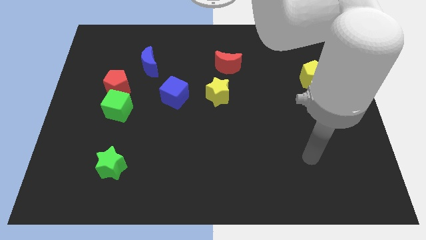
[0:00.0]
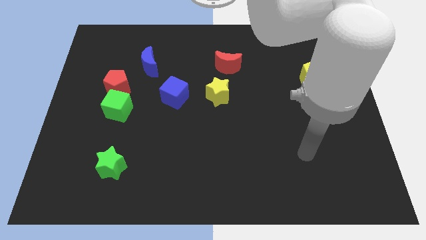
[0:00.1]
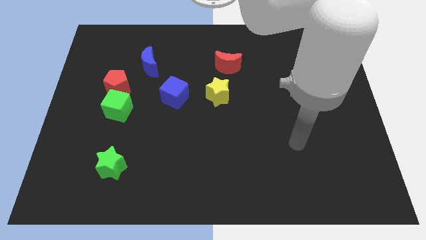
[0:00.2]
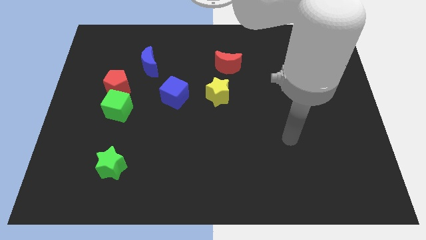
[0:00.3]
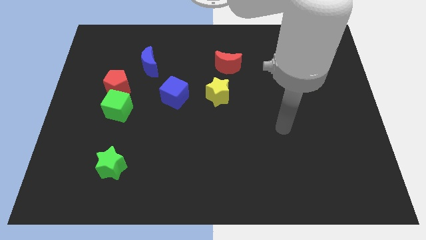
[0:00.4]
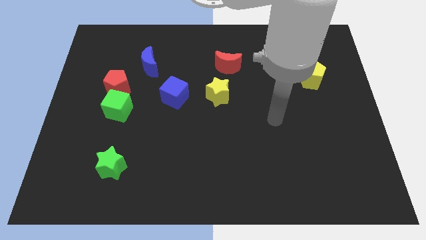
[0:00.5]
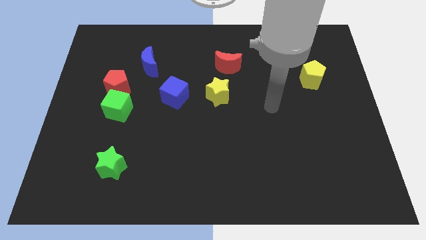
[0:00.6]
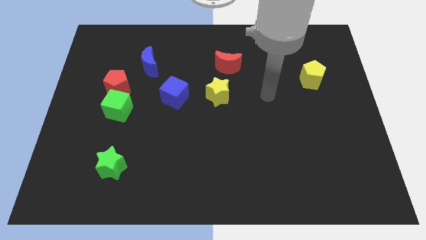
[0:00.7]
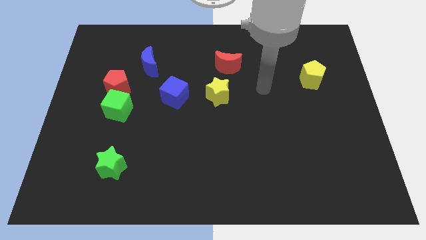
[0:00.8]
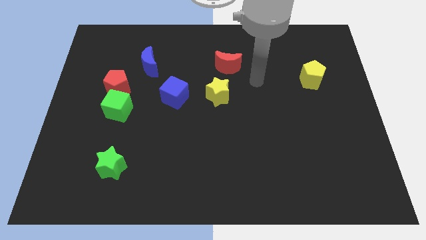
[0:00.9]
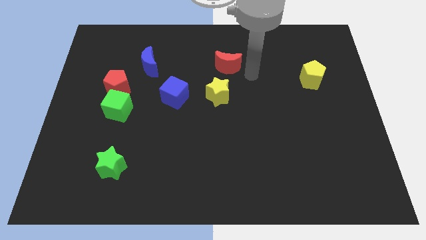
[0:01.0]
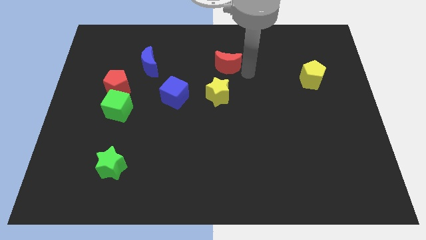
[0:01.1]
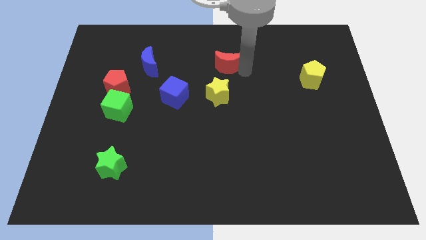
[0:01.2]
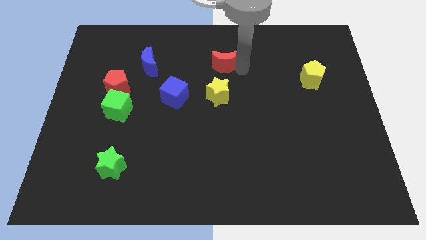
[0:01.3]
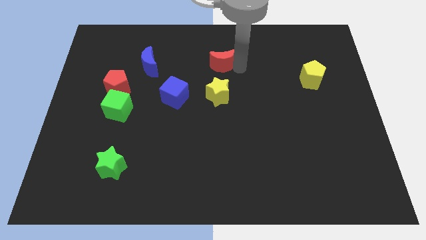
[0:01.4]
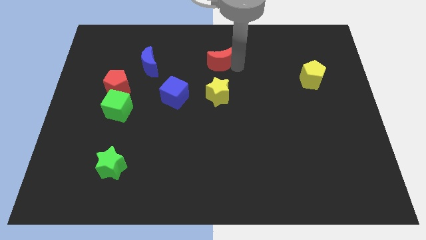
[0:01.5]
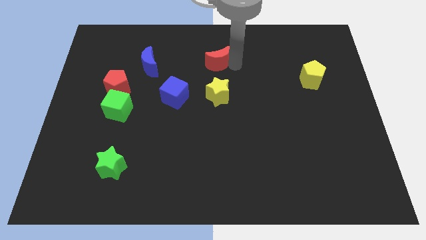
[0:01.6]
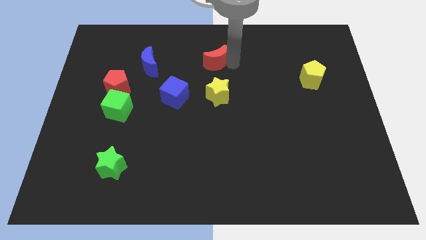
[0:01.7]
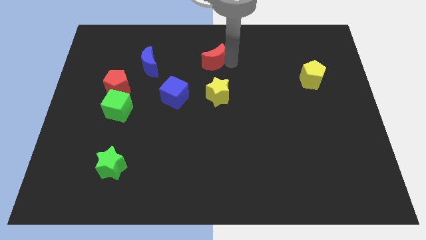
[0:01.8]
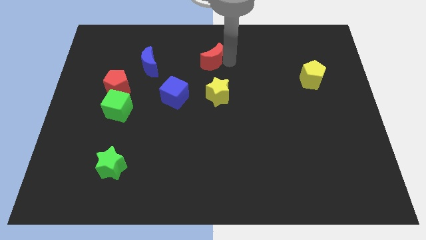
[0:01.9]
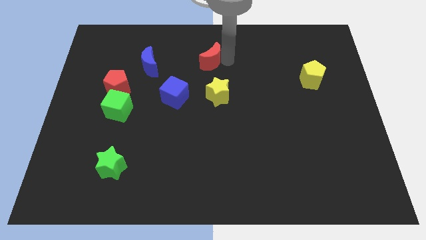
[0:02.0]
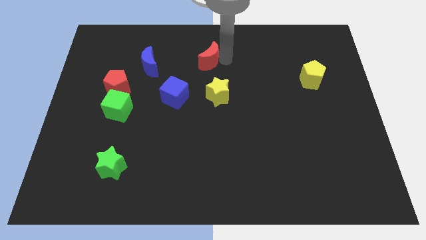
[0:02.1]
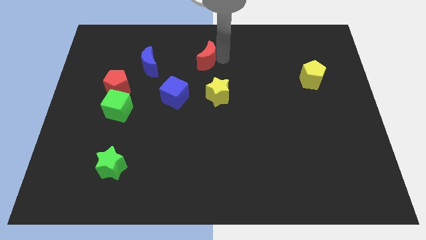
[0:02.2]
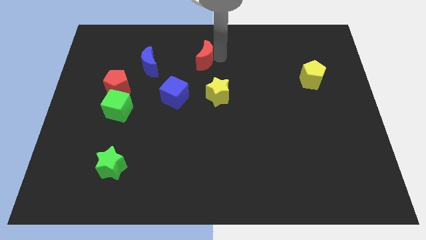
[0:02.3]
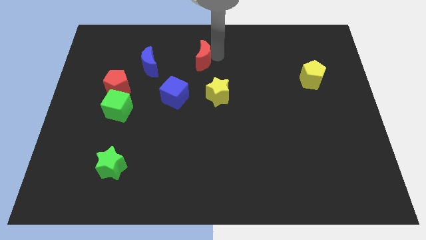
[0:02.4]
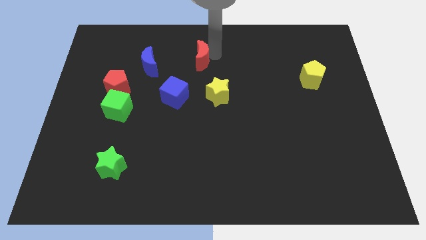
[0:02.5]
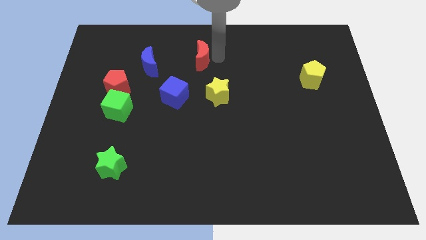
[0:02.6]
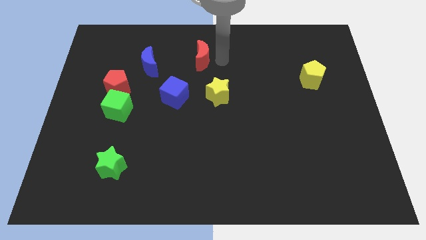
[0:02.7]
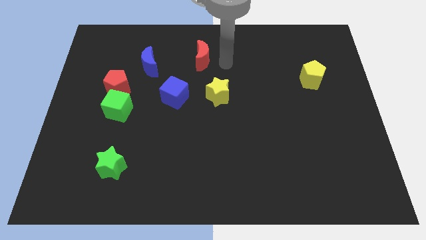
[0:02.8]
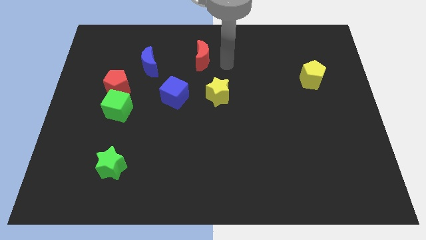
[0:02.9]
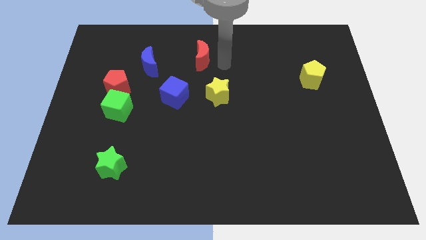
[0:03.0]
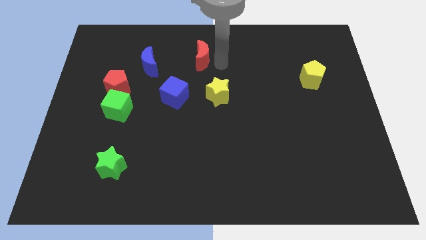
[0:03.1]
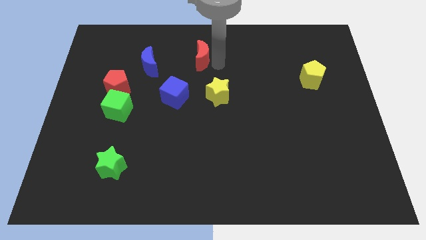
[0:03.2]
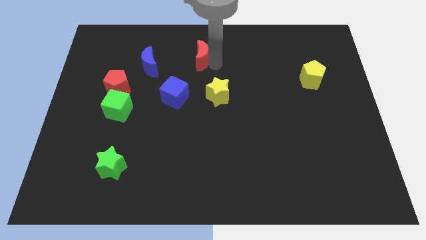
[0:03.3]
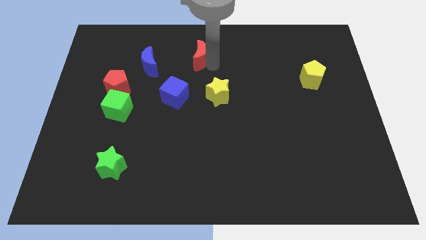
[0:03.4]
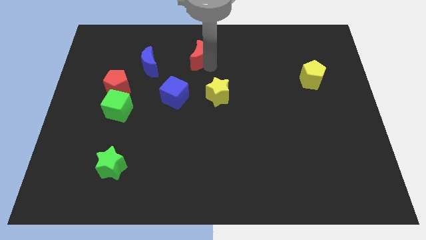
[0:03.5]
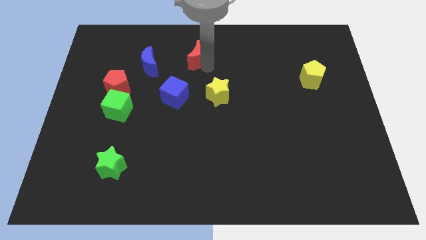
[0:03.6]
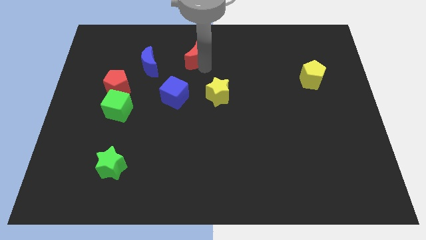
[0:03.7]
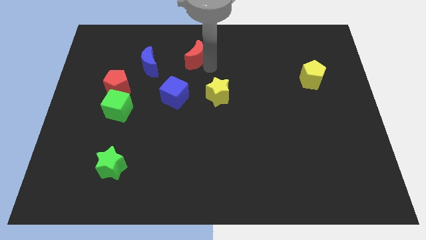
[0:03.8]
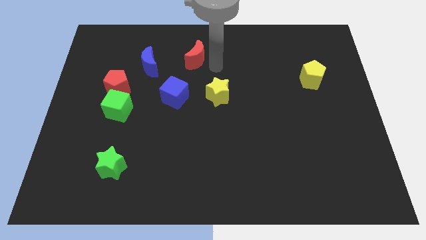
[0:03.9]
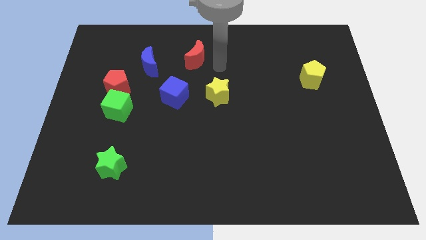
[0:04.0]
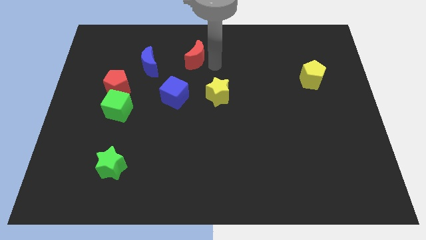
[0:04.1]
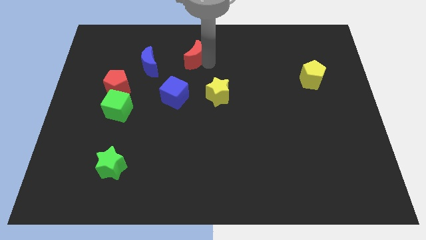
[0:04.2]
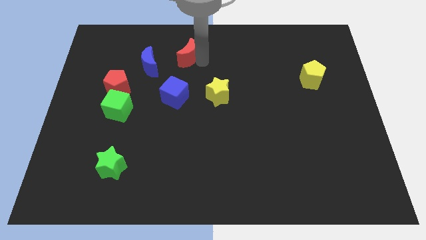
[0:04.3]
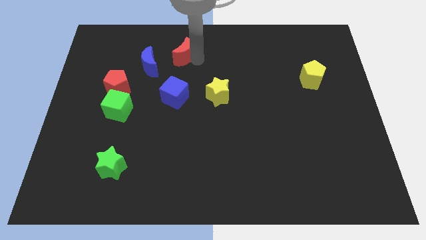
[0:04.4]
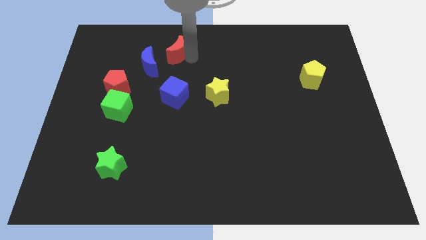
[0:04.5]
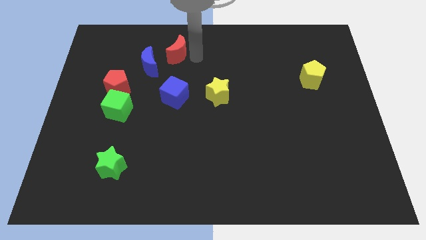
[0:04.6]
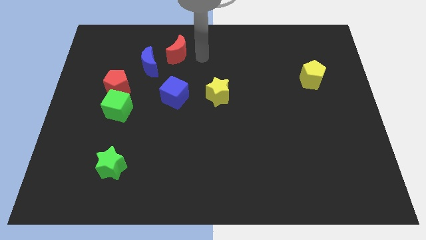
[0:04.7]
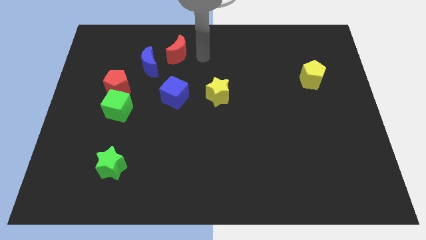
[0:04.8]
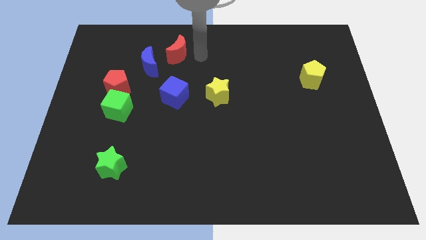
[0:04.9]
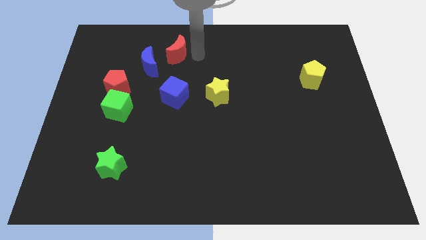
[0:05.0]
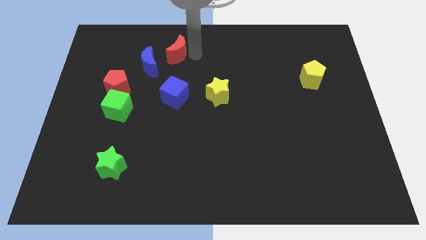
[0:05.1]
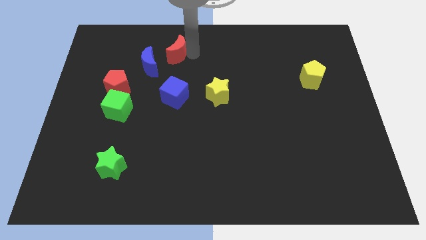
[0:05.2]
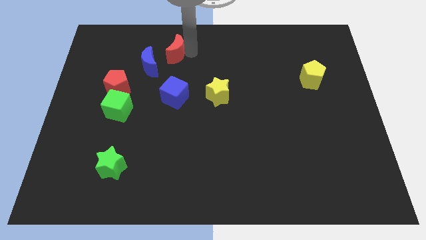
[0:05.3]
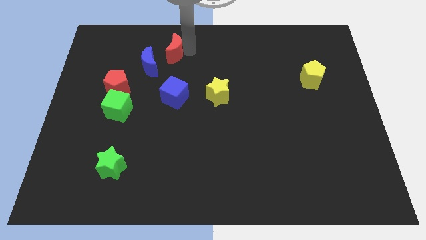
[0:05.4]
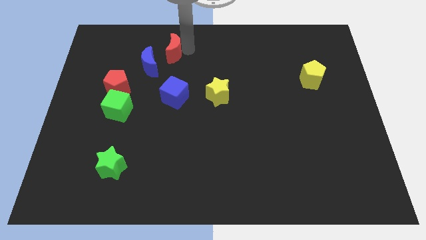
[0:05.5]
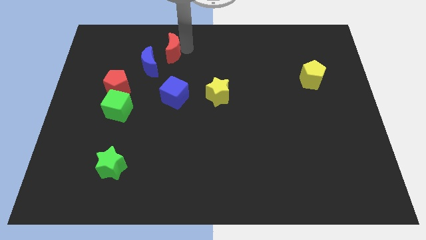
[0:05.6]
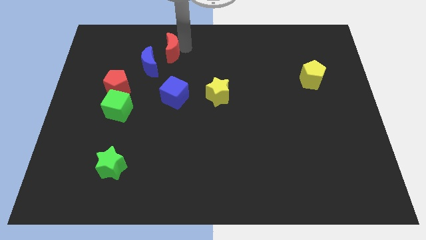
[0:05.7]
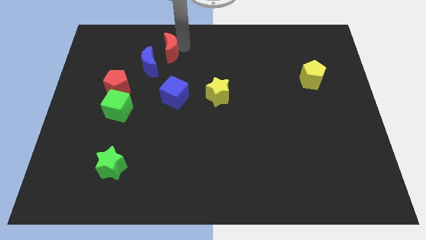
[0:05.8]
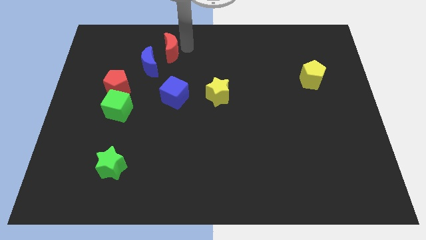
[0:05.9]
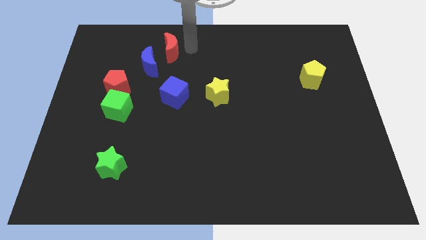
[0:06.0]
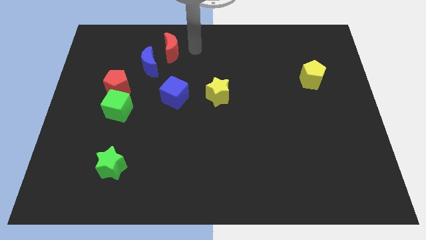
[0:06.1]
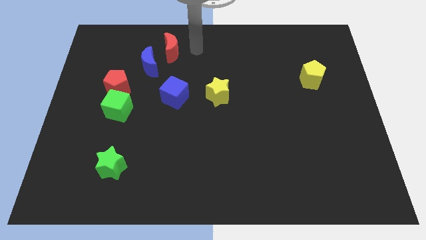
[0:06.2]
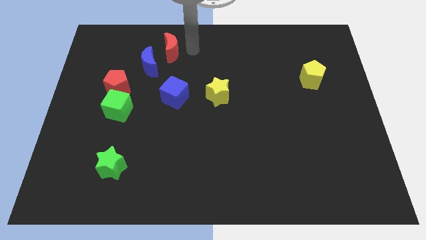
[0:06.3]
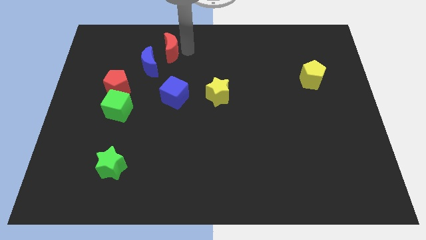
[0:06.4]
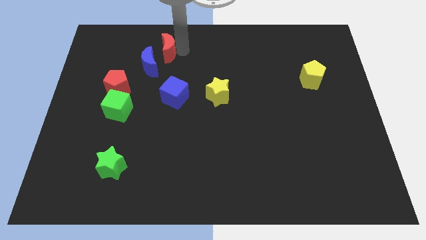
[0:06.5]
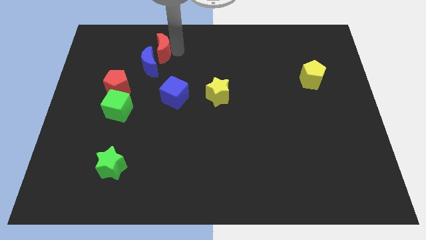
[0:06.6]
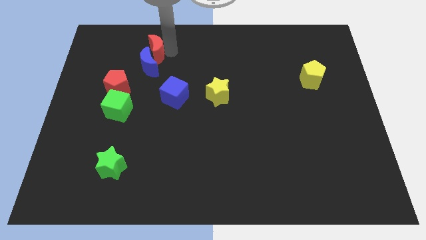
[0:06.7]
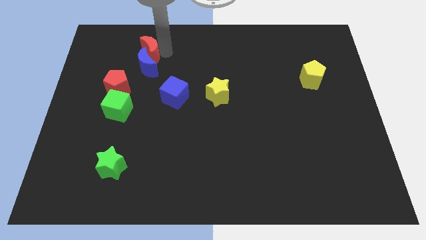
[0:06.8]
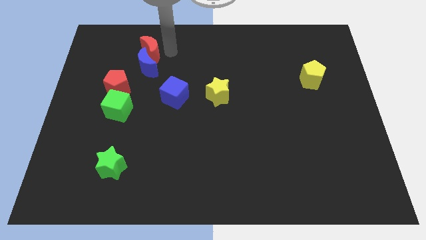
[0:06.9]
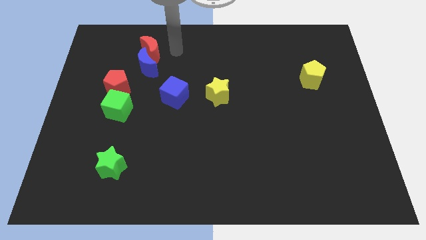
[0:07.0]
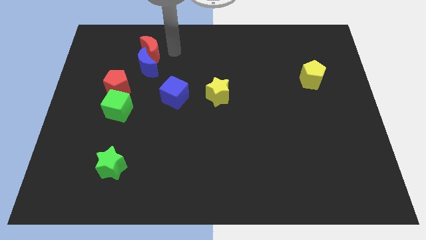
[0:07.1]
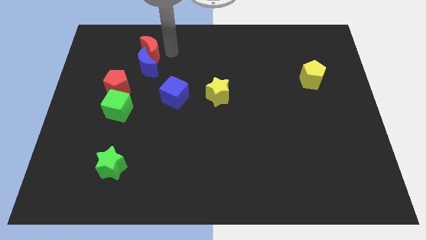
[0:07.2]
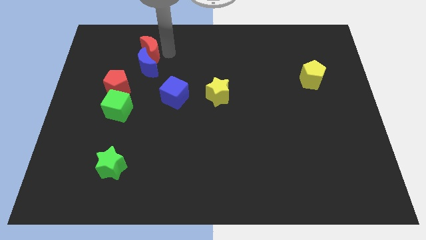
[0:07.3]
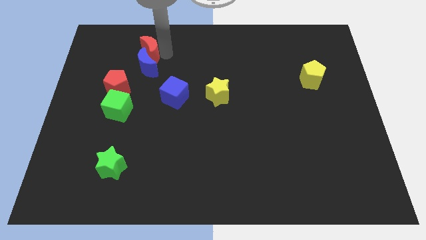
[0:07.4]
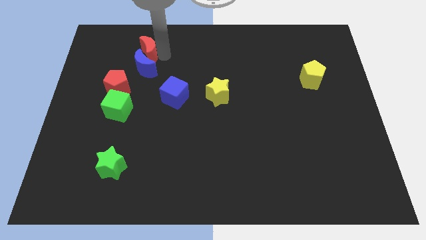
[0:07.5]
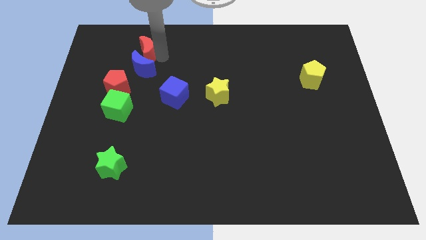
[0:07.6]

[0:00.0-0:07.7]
slide the red moon left

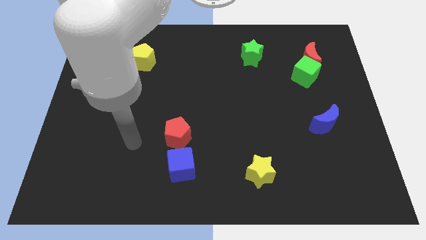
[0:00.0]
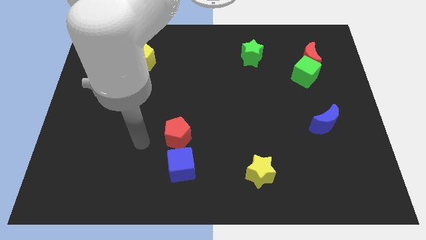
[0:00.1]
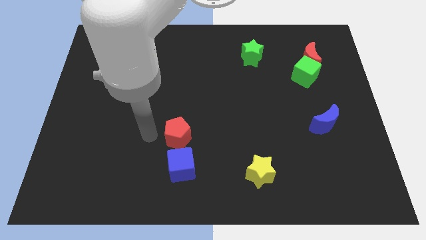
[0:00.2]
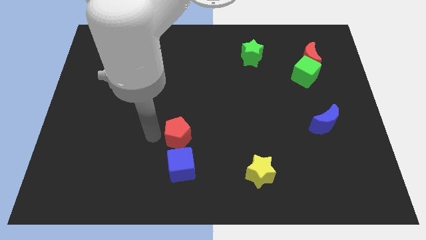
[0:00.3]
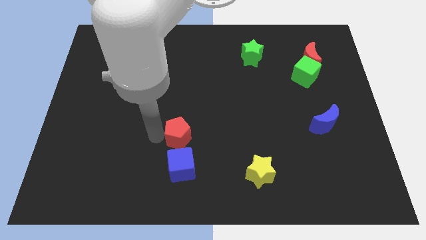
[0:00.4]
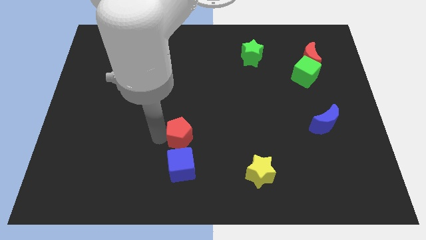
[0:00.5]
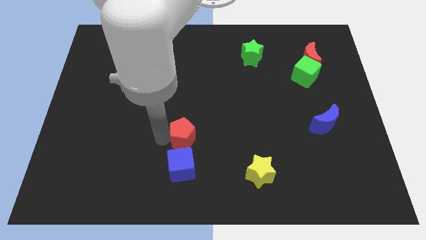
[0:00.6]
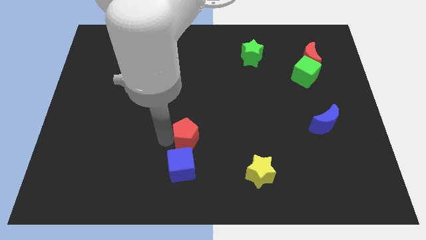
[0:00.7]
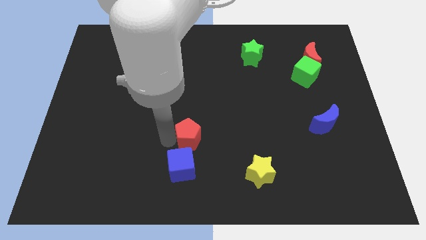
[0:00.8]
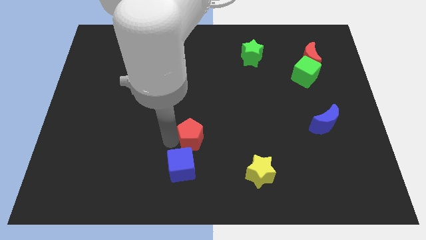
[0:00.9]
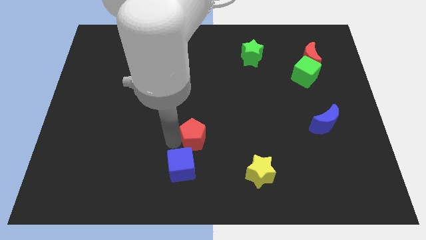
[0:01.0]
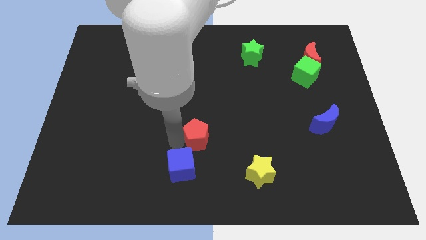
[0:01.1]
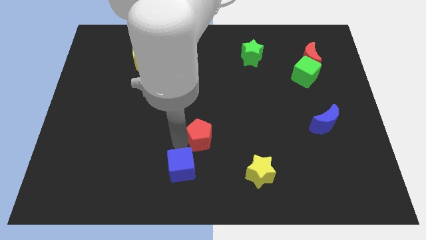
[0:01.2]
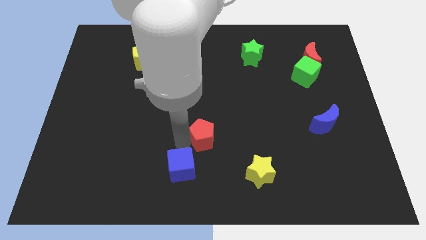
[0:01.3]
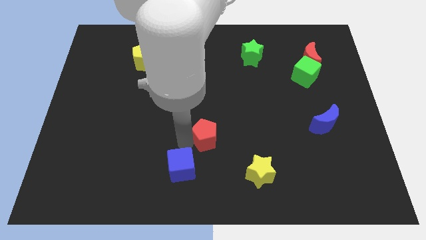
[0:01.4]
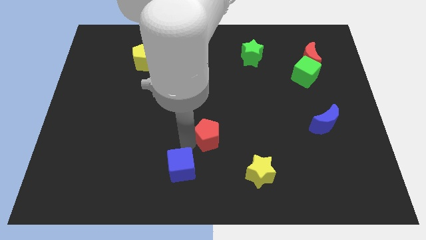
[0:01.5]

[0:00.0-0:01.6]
slightly slide the red pentagon right
